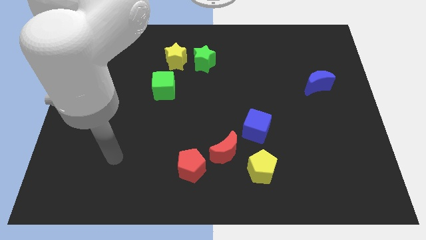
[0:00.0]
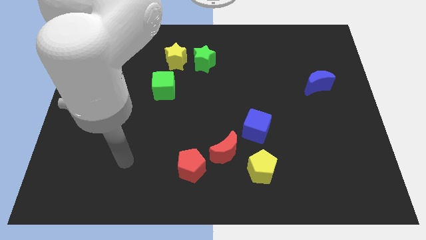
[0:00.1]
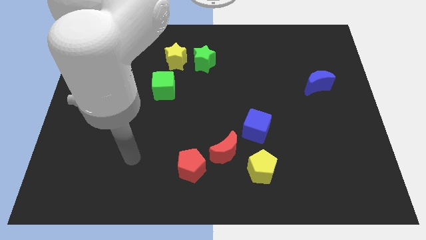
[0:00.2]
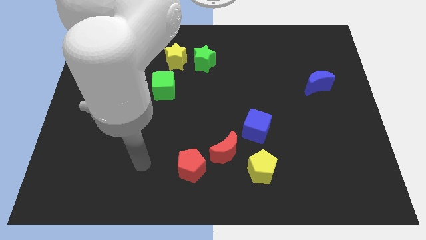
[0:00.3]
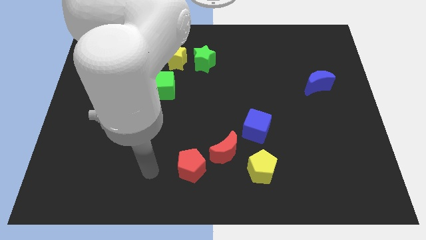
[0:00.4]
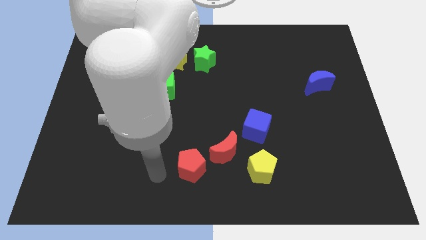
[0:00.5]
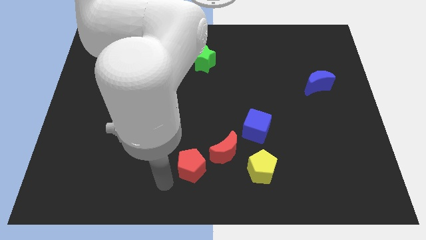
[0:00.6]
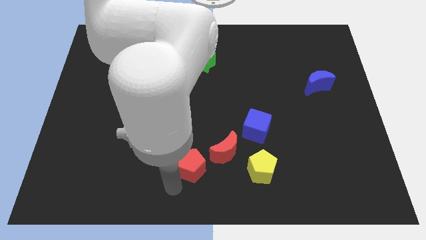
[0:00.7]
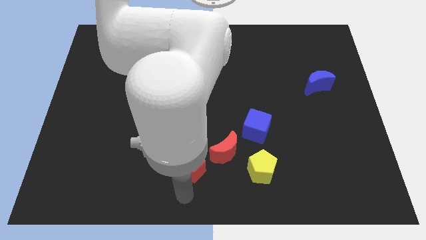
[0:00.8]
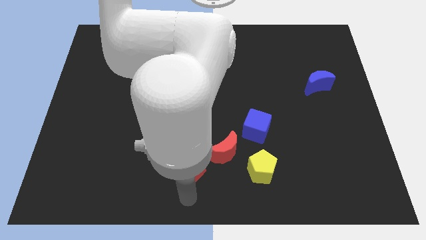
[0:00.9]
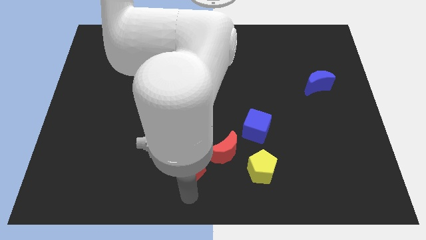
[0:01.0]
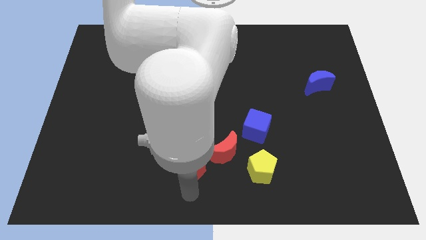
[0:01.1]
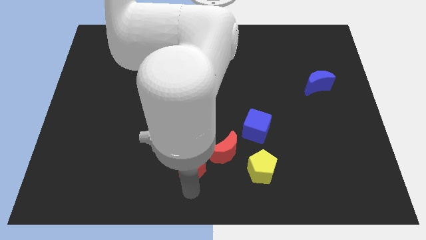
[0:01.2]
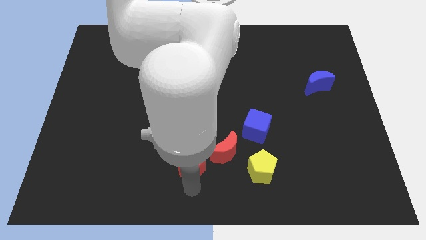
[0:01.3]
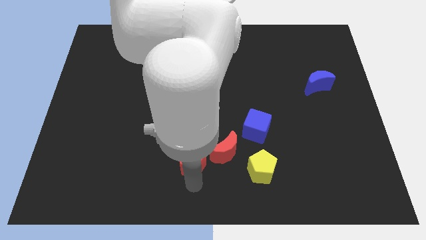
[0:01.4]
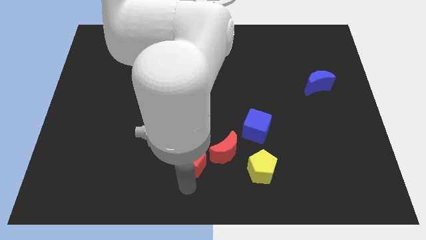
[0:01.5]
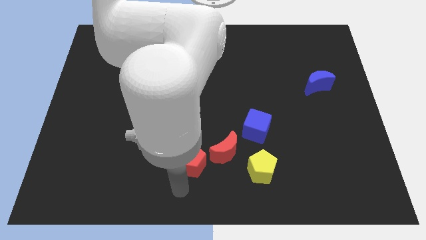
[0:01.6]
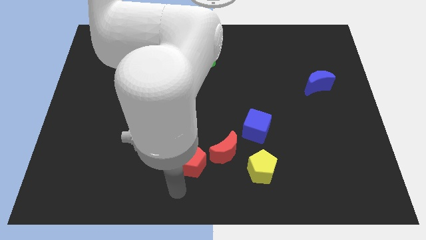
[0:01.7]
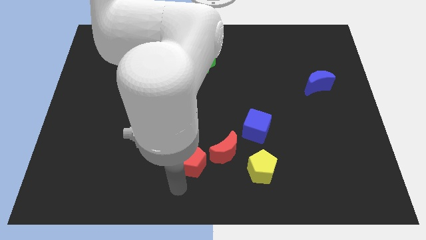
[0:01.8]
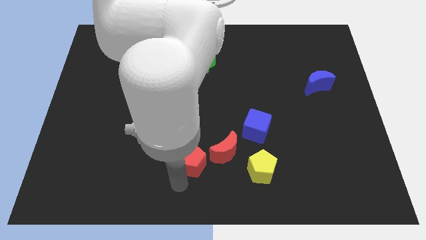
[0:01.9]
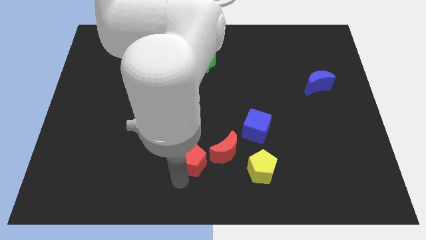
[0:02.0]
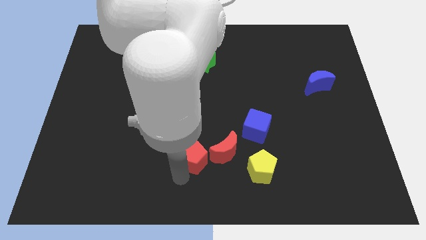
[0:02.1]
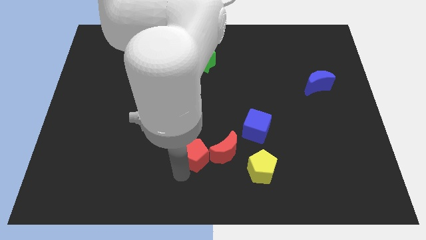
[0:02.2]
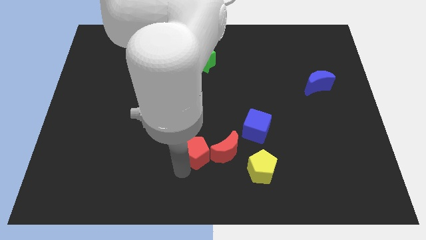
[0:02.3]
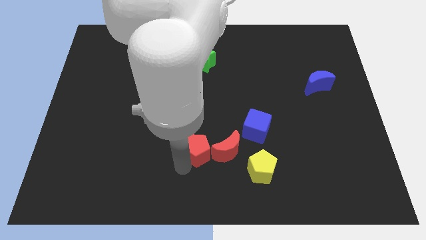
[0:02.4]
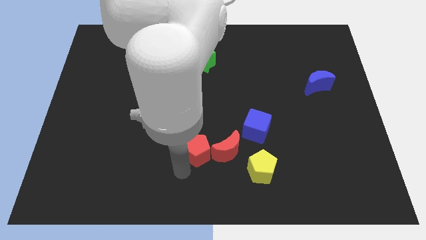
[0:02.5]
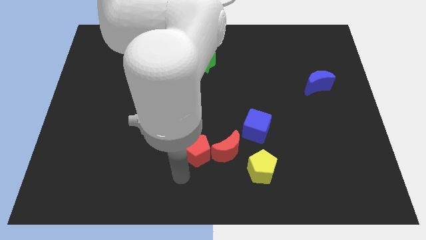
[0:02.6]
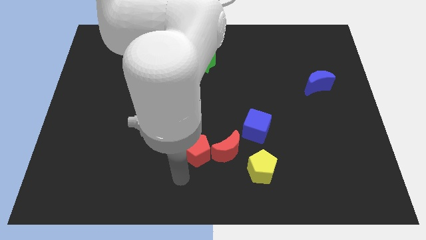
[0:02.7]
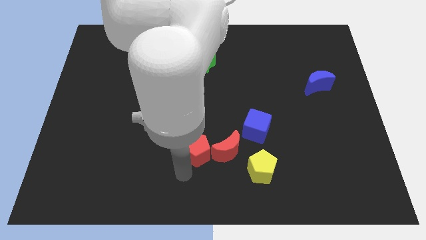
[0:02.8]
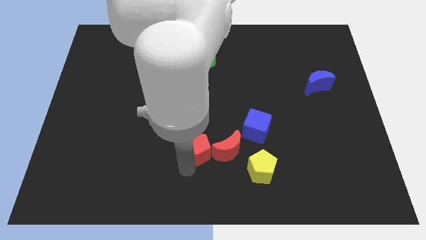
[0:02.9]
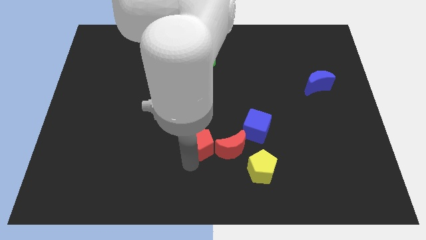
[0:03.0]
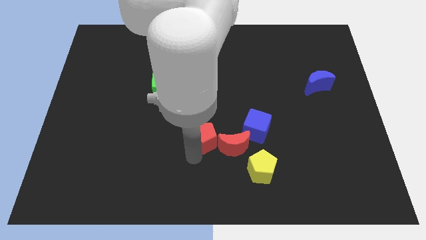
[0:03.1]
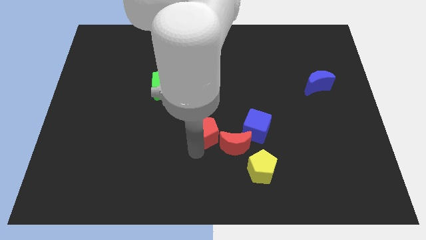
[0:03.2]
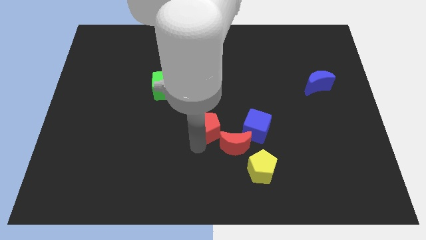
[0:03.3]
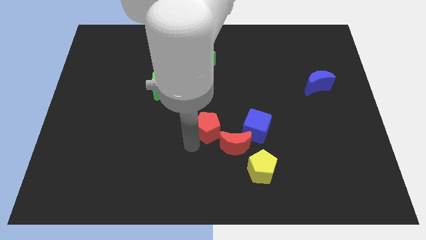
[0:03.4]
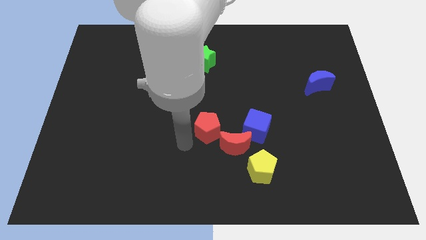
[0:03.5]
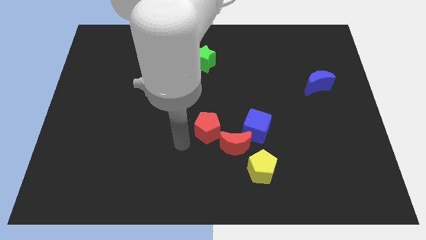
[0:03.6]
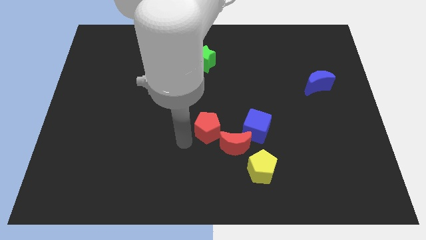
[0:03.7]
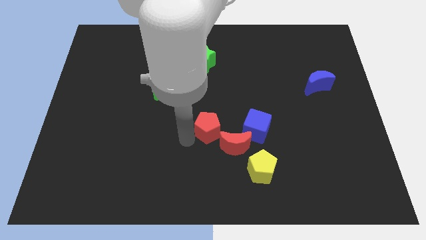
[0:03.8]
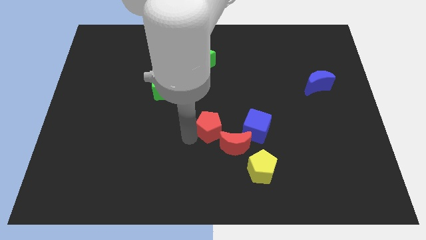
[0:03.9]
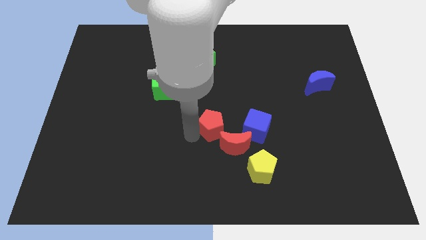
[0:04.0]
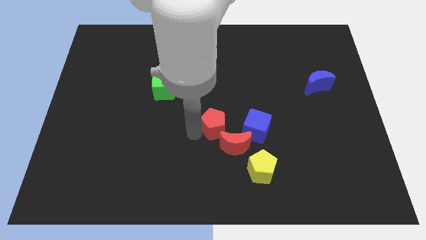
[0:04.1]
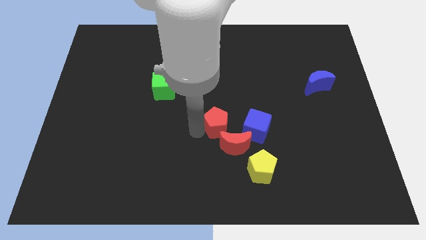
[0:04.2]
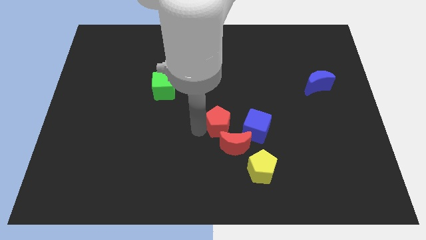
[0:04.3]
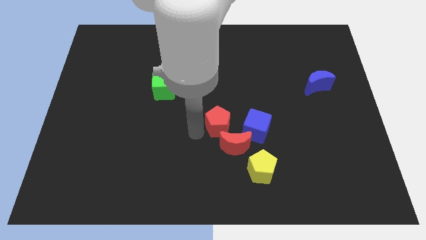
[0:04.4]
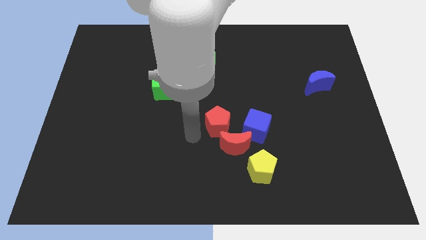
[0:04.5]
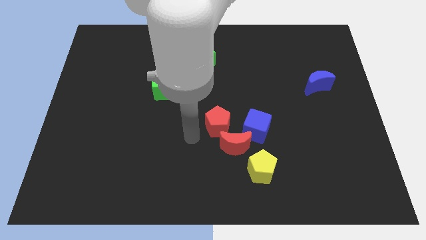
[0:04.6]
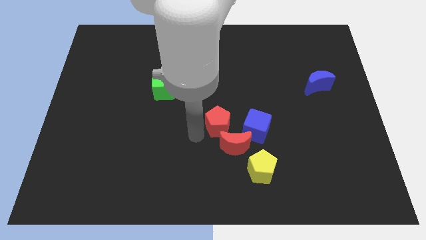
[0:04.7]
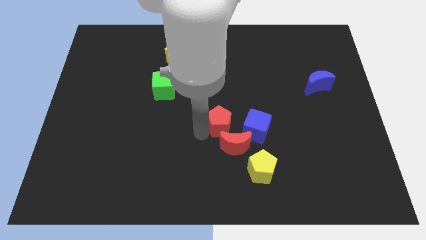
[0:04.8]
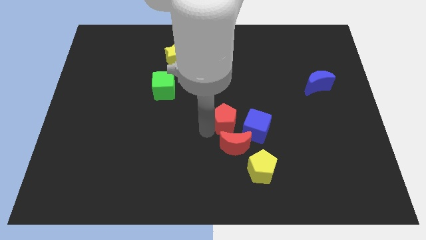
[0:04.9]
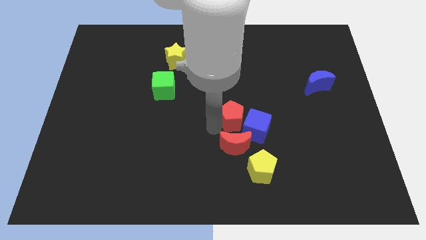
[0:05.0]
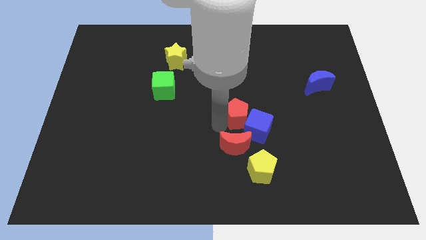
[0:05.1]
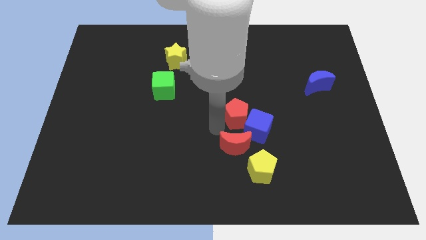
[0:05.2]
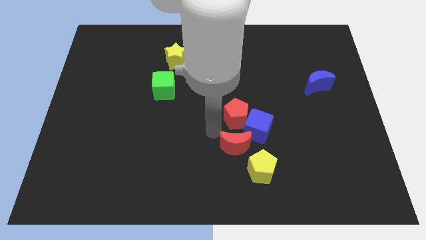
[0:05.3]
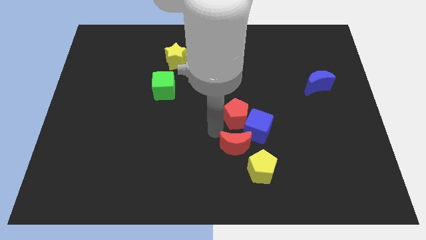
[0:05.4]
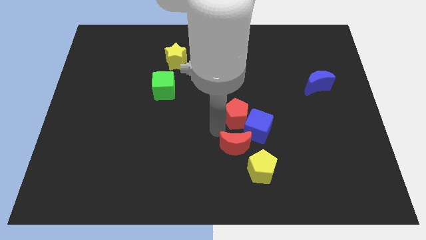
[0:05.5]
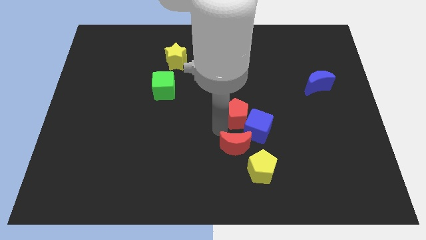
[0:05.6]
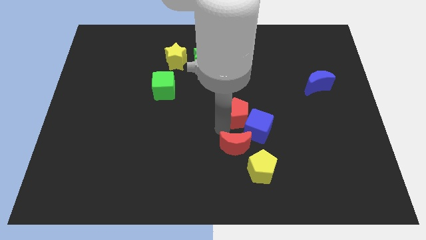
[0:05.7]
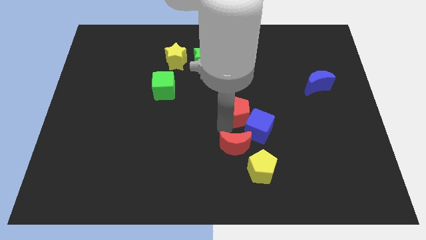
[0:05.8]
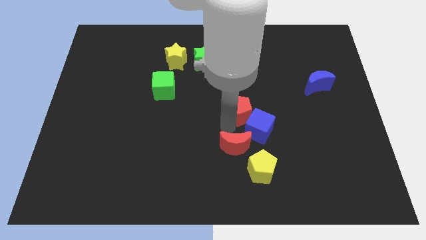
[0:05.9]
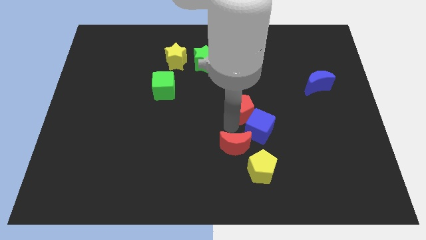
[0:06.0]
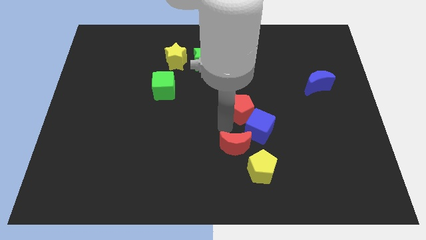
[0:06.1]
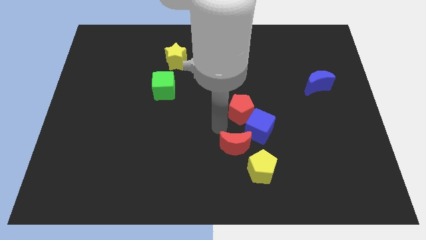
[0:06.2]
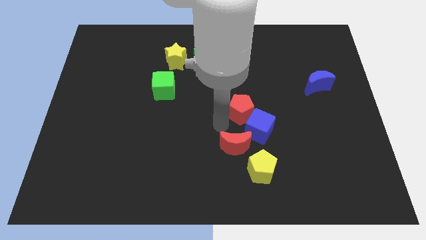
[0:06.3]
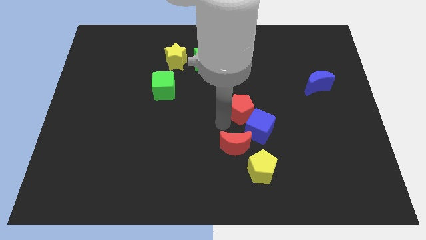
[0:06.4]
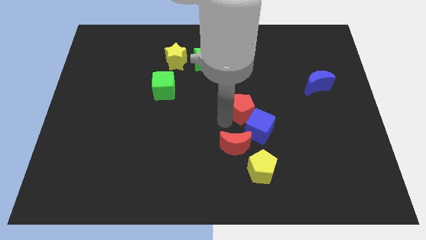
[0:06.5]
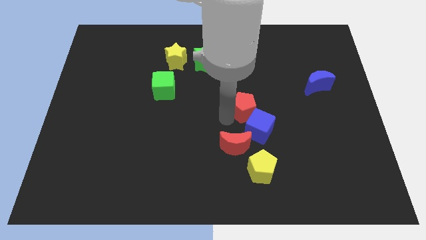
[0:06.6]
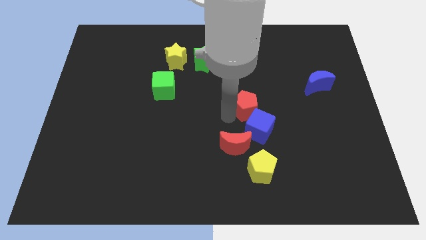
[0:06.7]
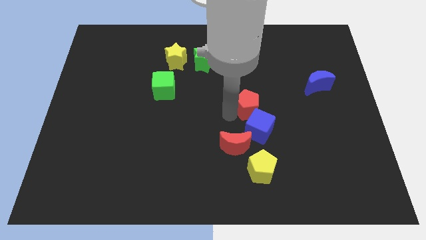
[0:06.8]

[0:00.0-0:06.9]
push the red pentagon up and to the right

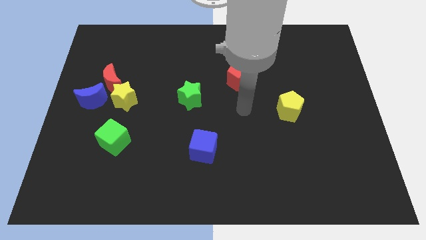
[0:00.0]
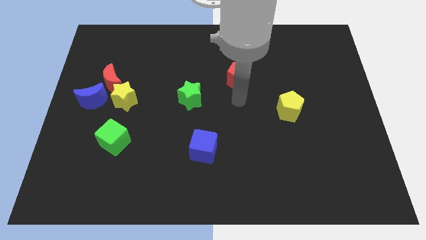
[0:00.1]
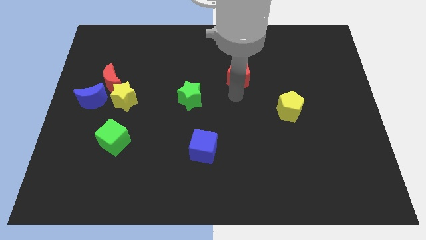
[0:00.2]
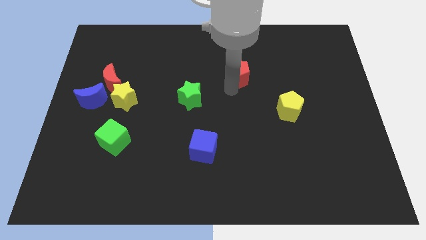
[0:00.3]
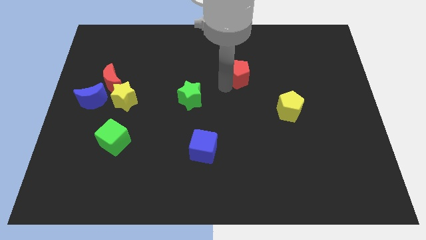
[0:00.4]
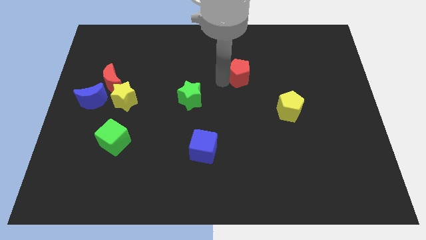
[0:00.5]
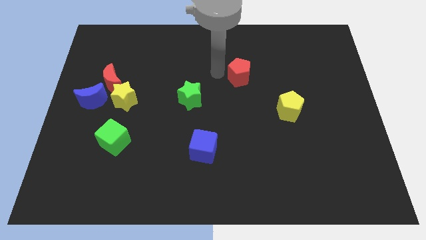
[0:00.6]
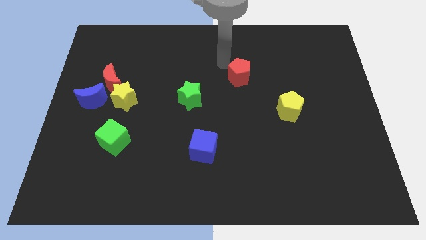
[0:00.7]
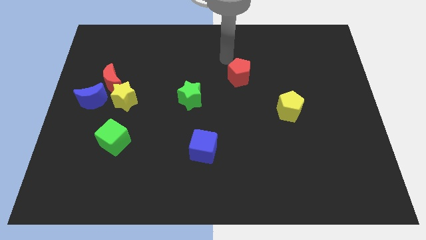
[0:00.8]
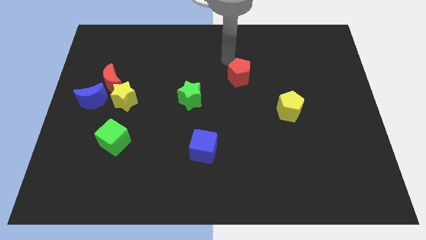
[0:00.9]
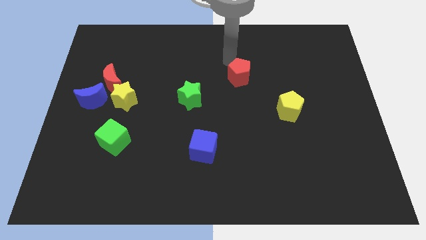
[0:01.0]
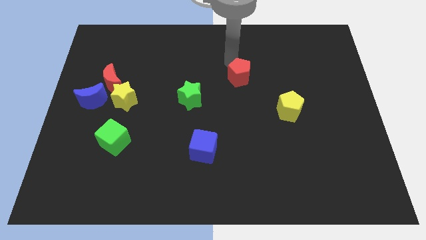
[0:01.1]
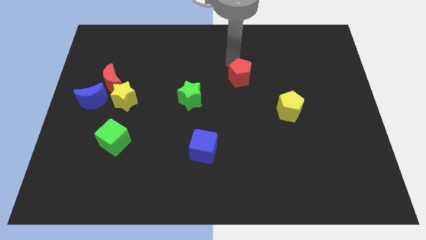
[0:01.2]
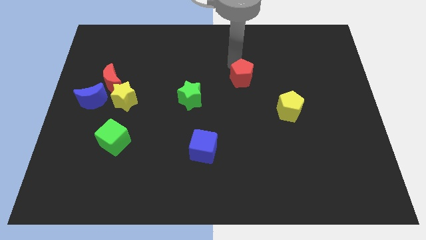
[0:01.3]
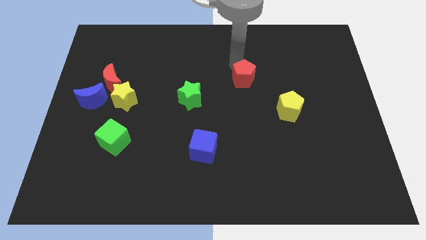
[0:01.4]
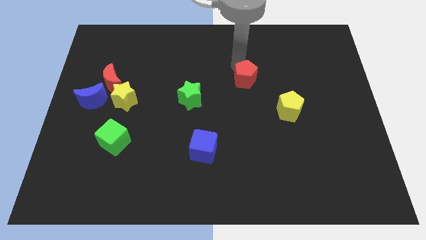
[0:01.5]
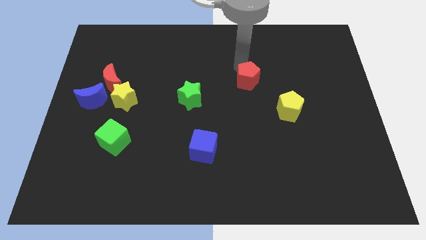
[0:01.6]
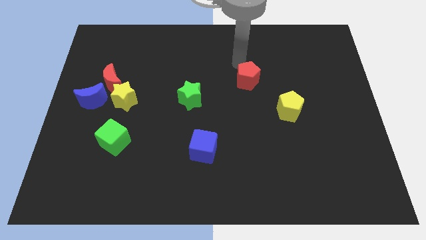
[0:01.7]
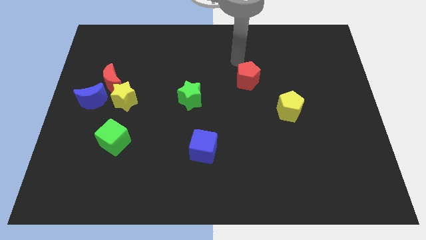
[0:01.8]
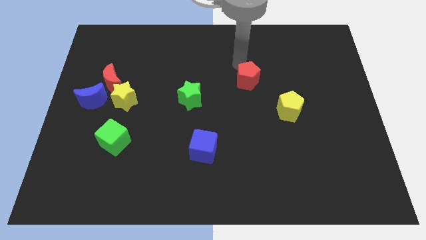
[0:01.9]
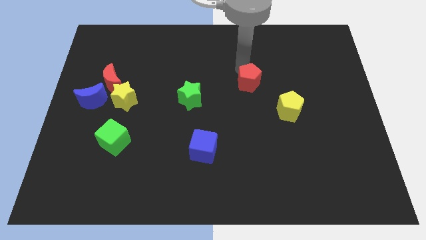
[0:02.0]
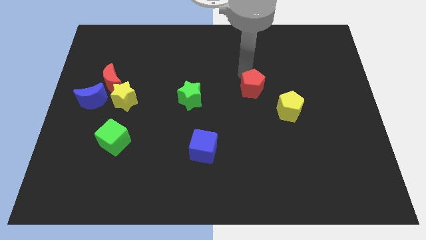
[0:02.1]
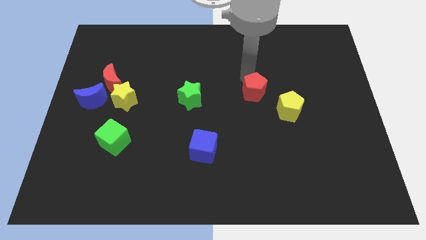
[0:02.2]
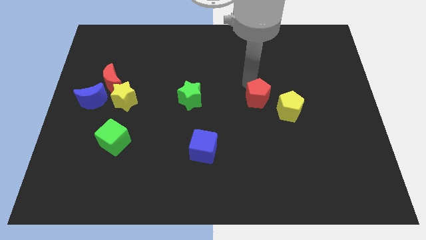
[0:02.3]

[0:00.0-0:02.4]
move the red pentagon a bit downwards and to the right diagonally
